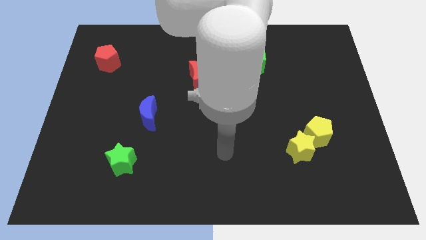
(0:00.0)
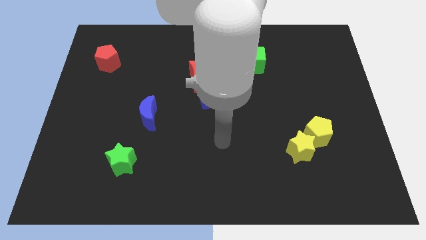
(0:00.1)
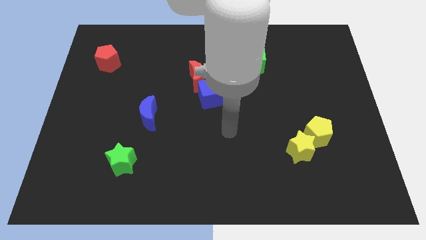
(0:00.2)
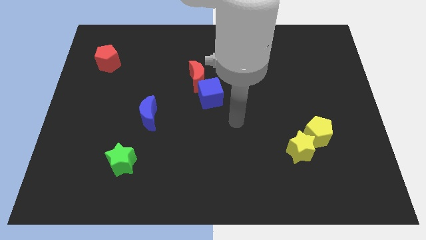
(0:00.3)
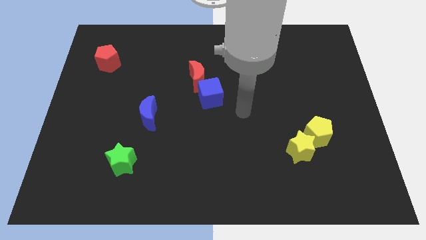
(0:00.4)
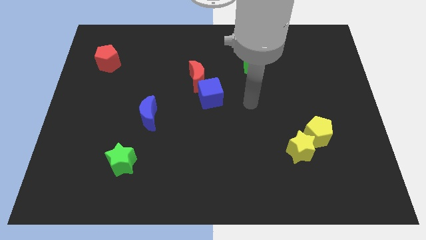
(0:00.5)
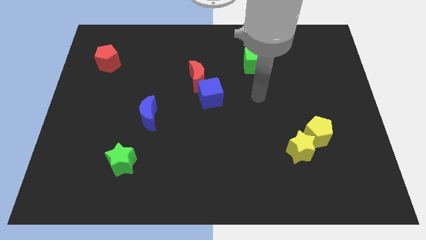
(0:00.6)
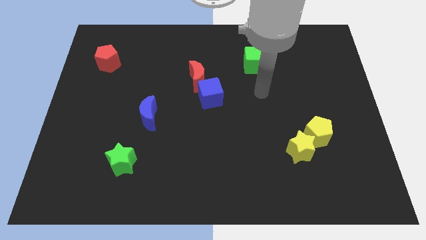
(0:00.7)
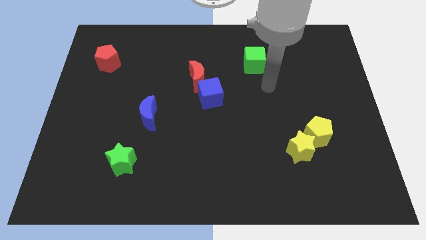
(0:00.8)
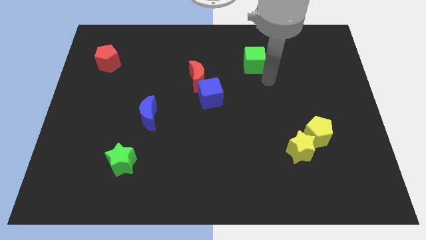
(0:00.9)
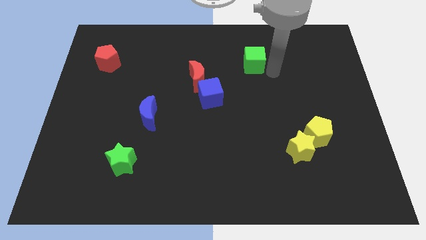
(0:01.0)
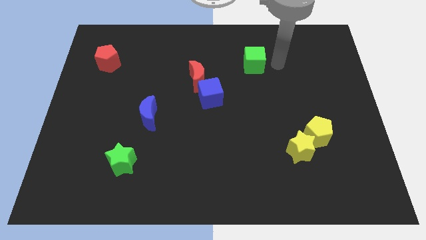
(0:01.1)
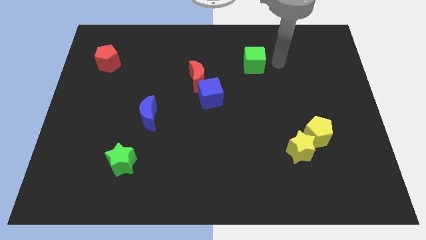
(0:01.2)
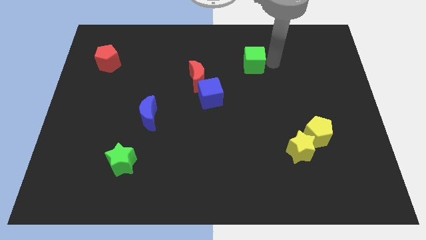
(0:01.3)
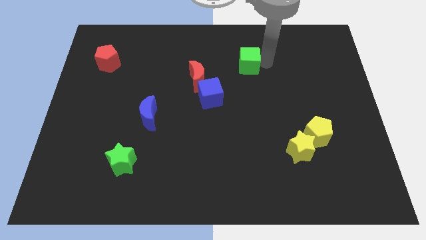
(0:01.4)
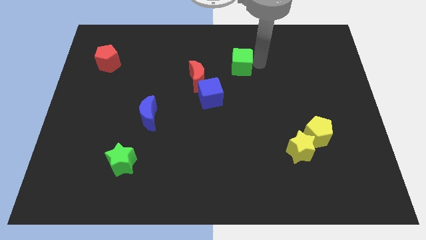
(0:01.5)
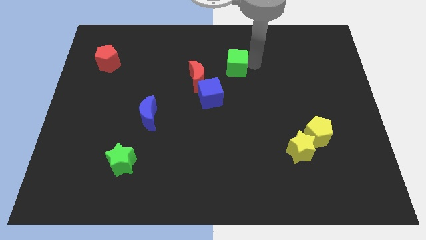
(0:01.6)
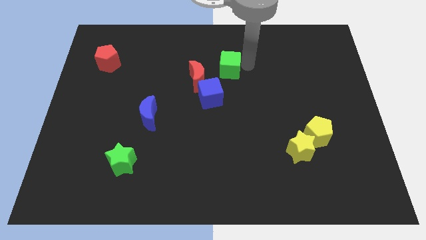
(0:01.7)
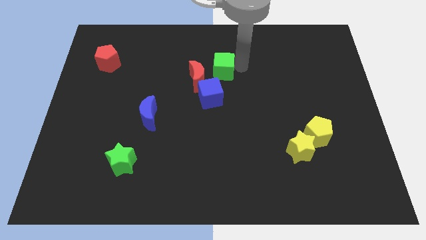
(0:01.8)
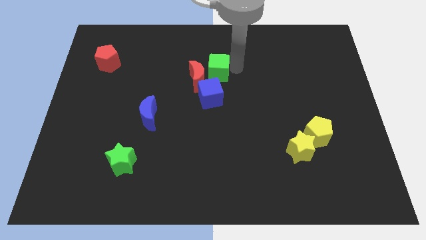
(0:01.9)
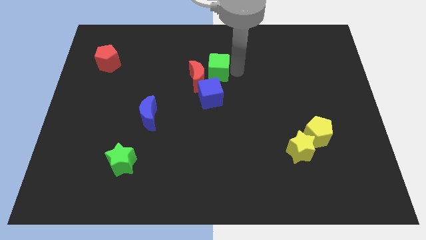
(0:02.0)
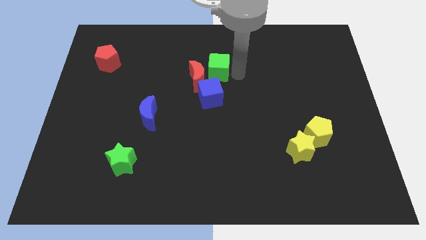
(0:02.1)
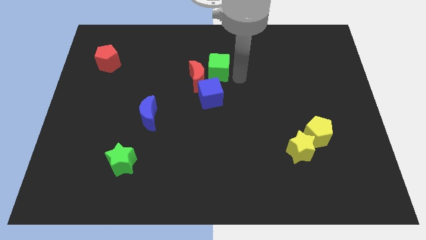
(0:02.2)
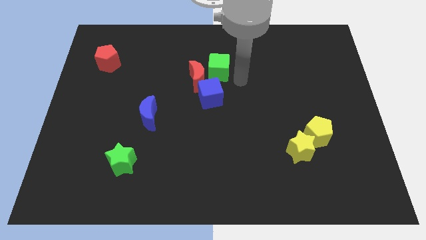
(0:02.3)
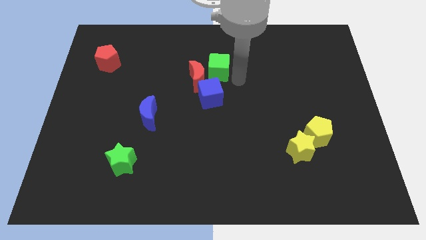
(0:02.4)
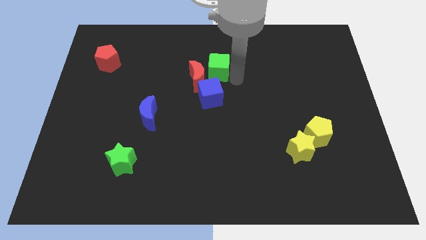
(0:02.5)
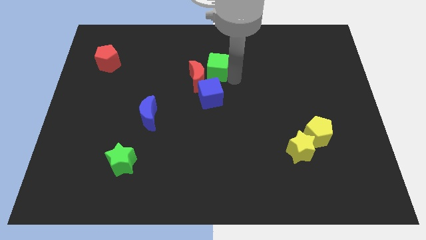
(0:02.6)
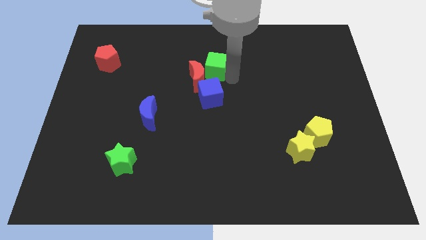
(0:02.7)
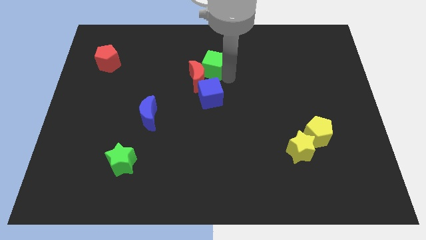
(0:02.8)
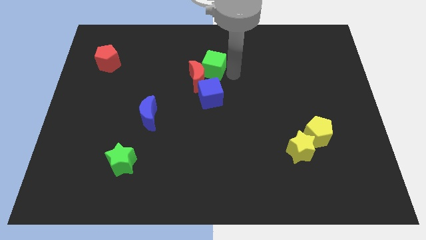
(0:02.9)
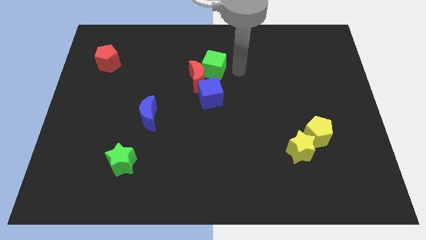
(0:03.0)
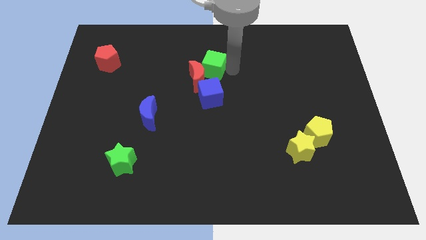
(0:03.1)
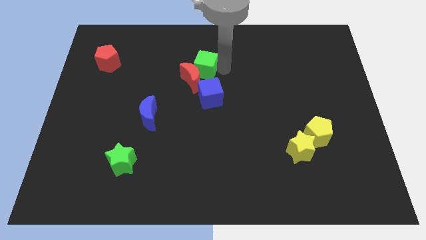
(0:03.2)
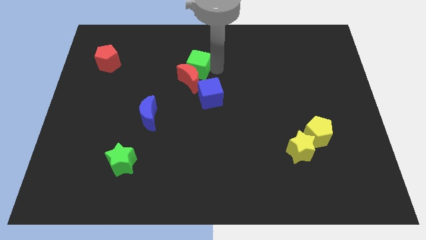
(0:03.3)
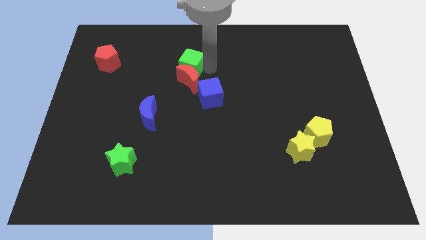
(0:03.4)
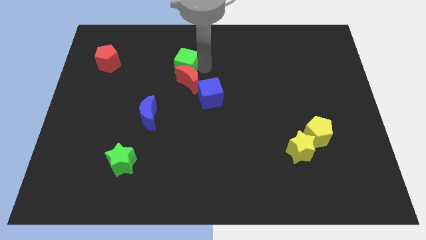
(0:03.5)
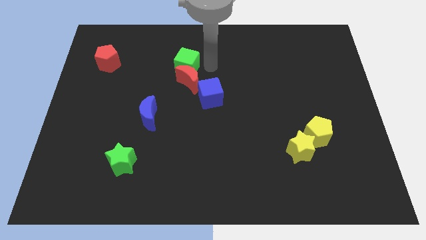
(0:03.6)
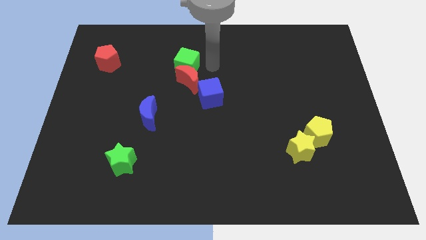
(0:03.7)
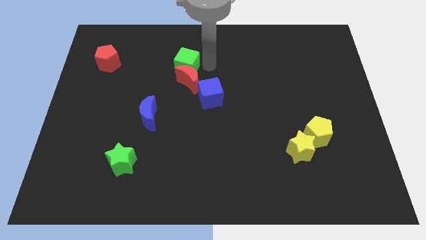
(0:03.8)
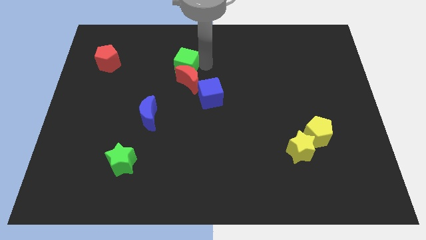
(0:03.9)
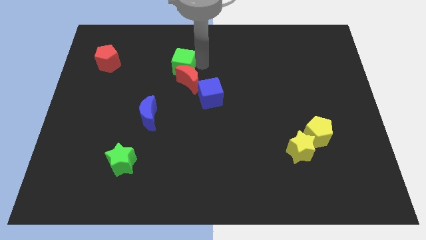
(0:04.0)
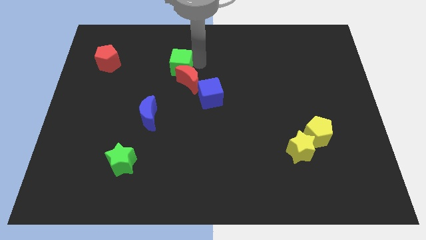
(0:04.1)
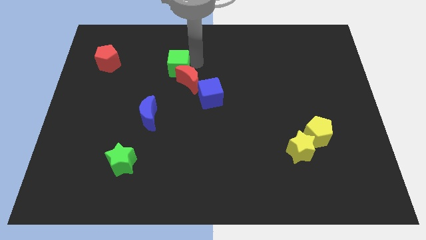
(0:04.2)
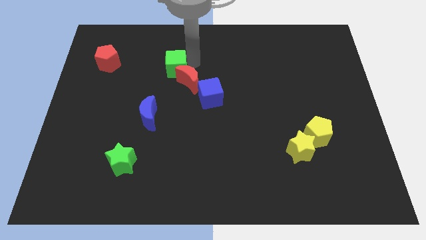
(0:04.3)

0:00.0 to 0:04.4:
push the green cube to the left

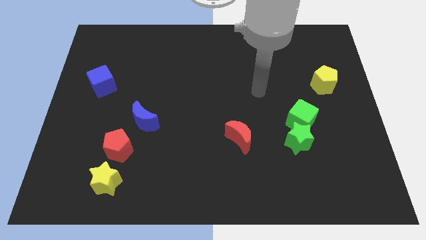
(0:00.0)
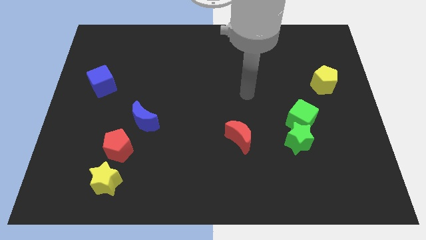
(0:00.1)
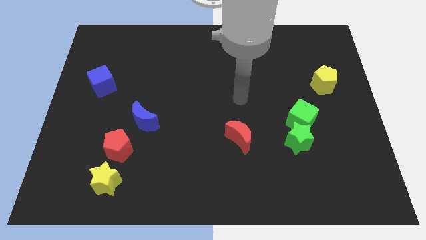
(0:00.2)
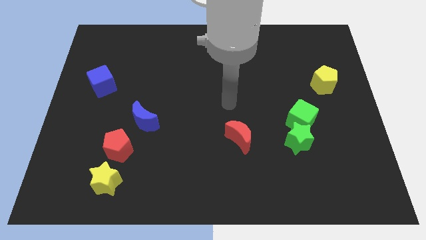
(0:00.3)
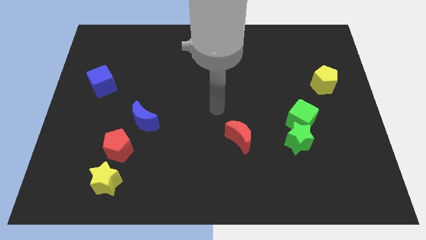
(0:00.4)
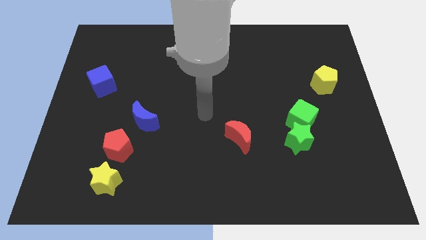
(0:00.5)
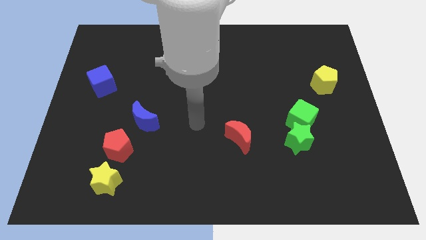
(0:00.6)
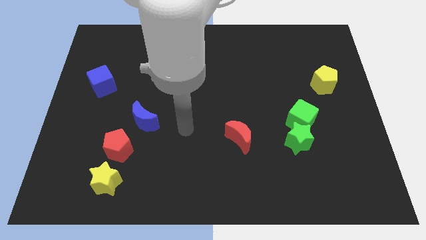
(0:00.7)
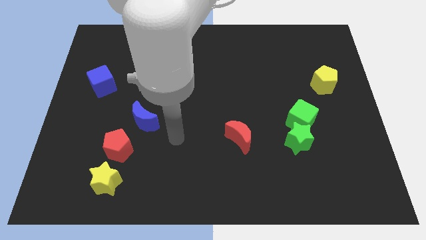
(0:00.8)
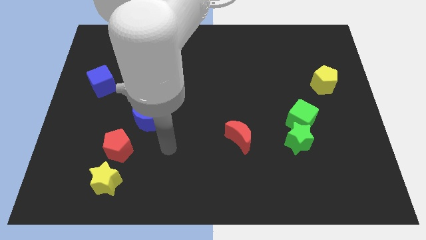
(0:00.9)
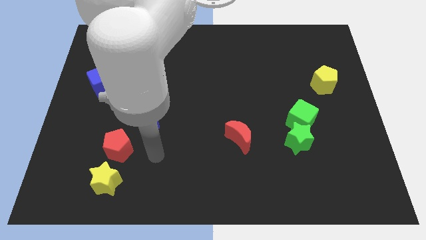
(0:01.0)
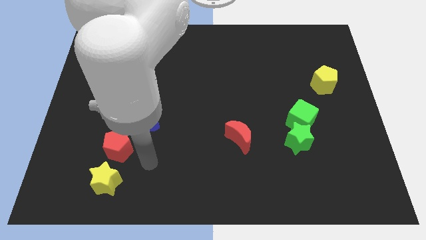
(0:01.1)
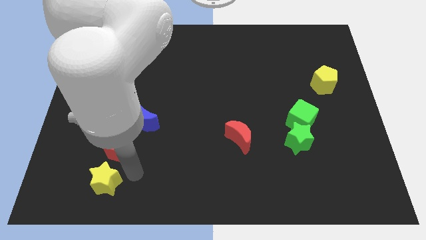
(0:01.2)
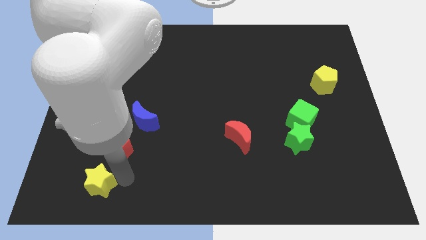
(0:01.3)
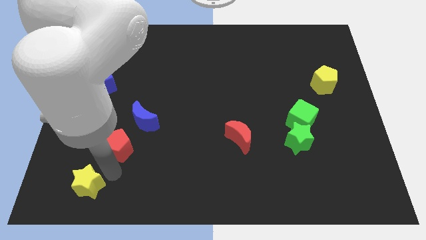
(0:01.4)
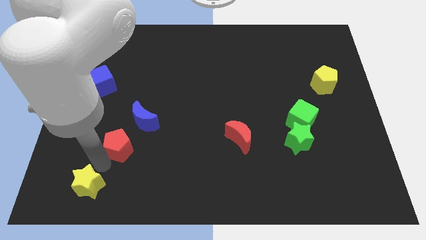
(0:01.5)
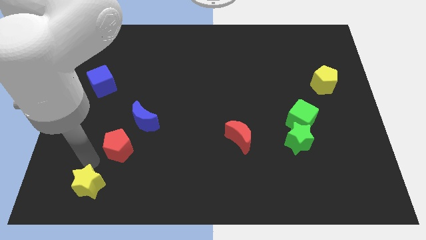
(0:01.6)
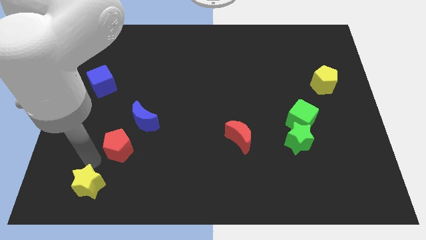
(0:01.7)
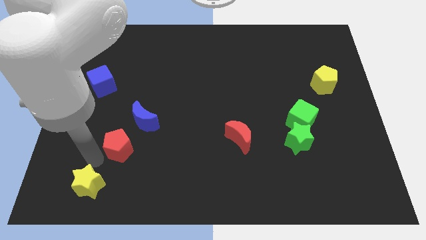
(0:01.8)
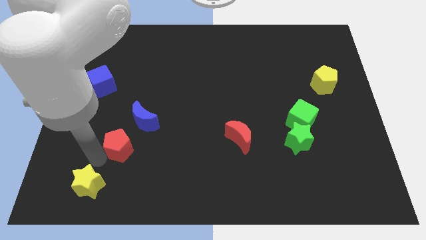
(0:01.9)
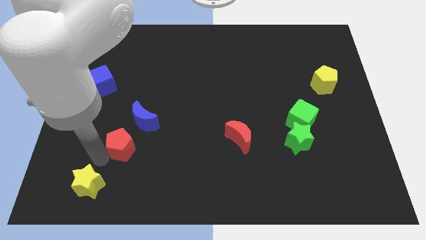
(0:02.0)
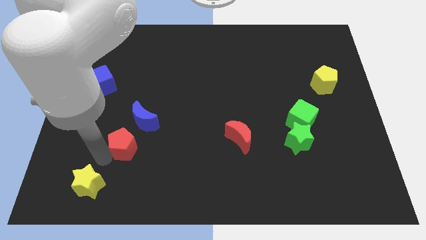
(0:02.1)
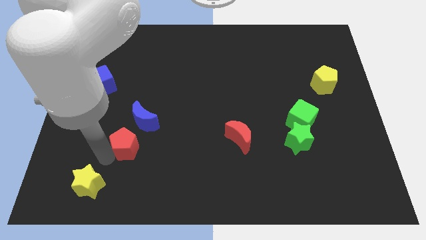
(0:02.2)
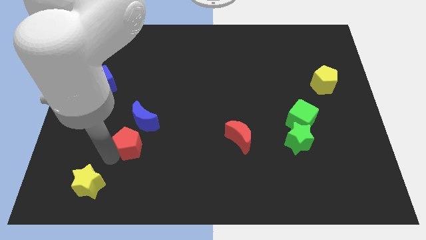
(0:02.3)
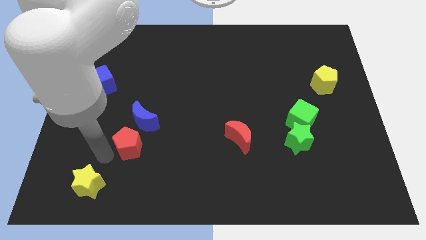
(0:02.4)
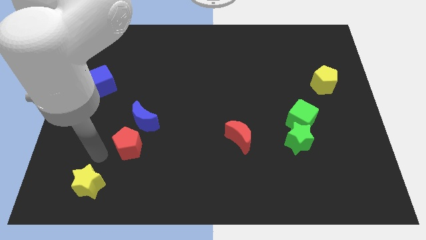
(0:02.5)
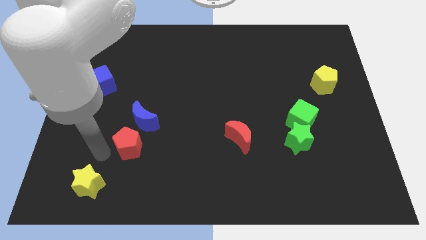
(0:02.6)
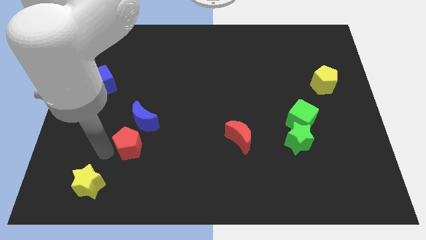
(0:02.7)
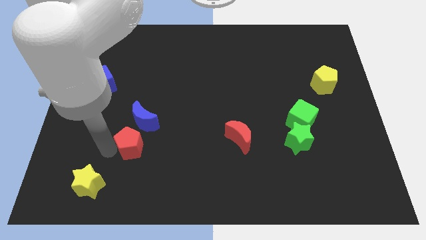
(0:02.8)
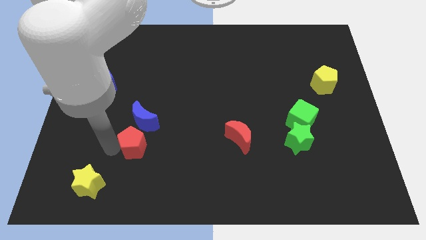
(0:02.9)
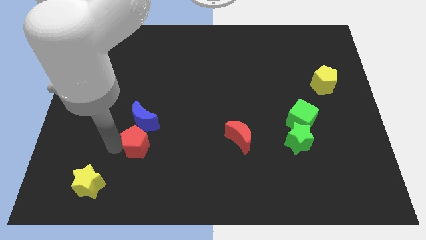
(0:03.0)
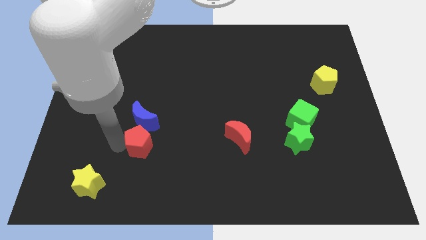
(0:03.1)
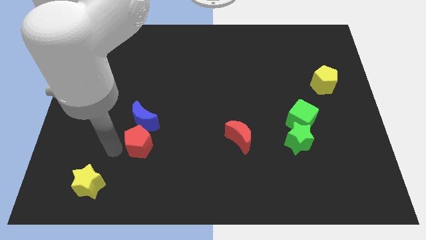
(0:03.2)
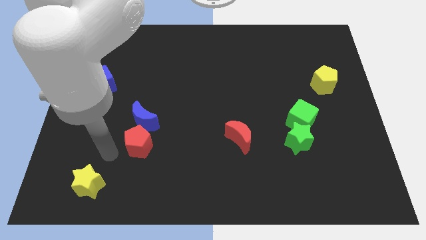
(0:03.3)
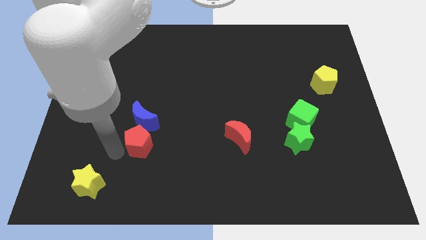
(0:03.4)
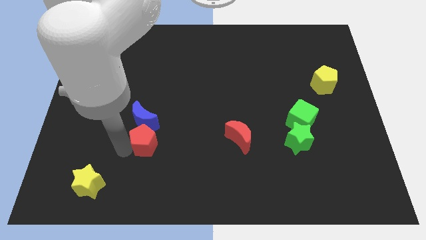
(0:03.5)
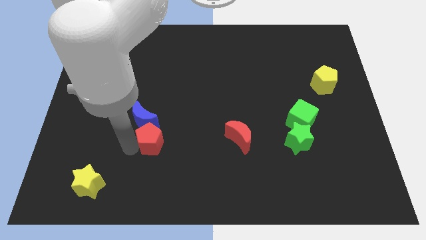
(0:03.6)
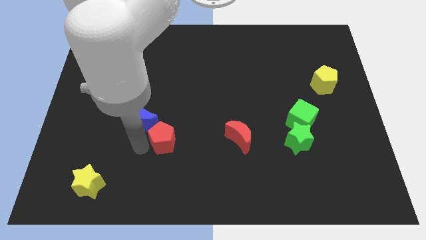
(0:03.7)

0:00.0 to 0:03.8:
slide the red pentagon upwards and to the right diagonally slightly
